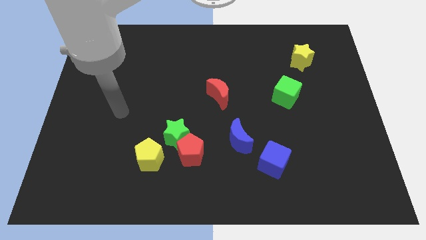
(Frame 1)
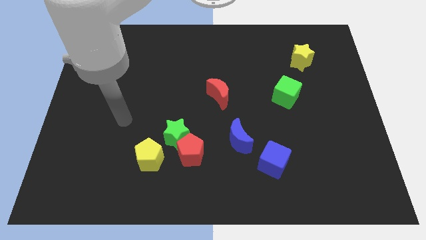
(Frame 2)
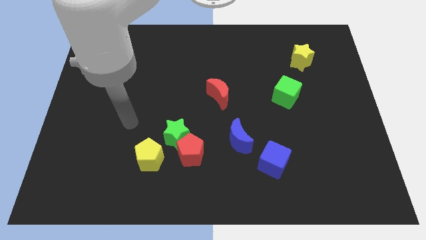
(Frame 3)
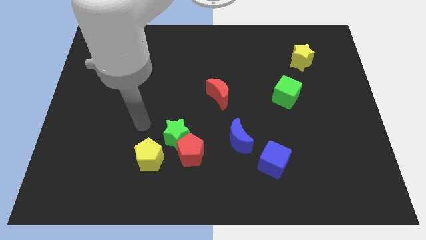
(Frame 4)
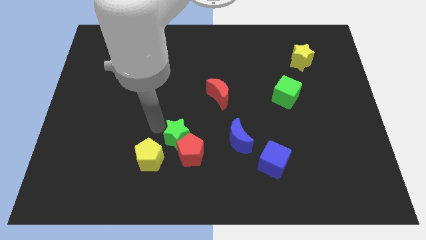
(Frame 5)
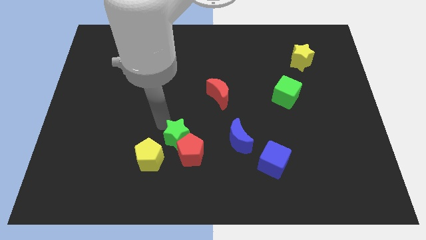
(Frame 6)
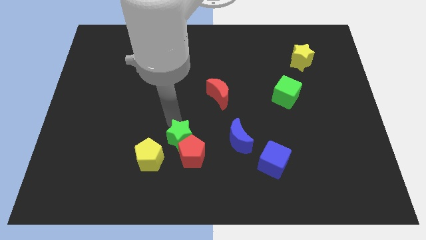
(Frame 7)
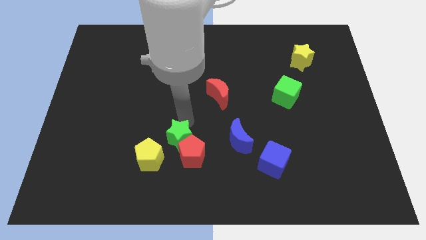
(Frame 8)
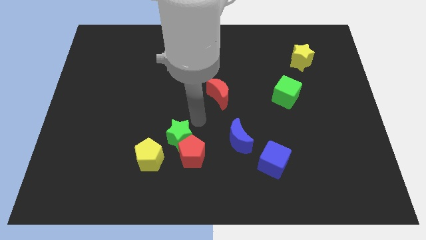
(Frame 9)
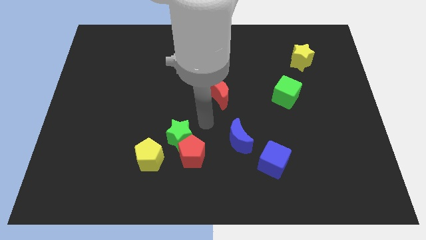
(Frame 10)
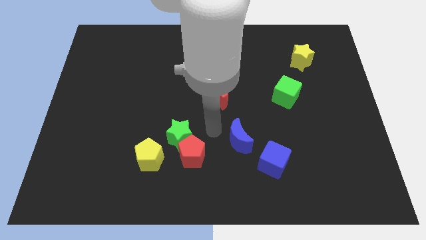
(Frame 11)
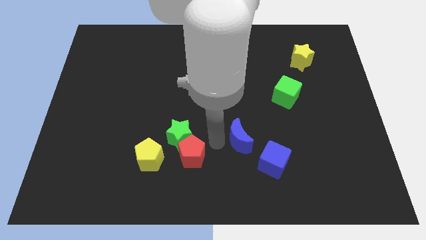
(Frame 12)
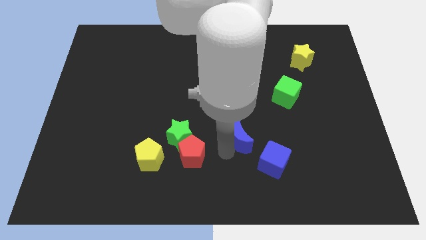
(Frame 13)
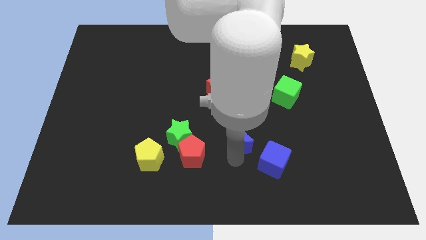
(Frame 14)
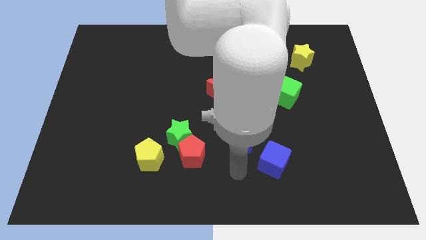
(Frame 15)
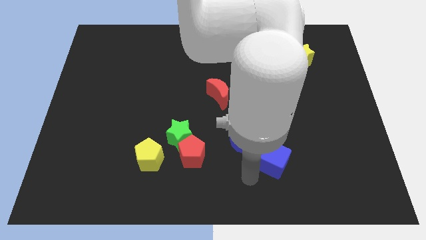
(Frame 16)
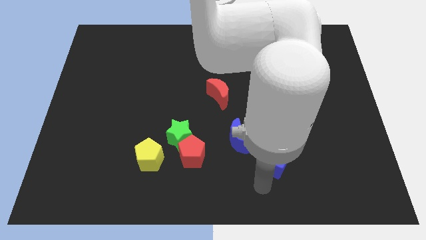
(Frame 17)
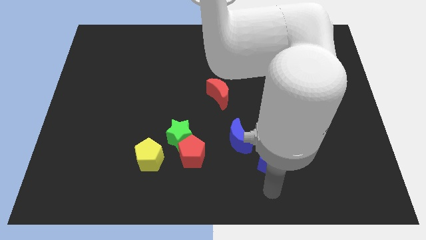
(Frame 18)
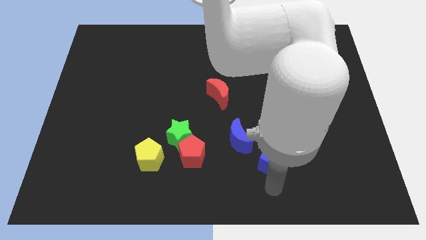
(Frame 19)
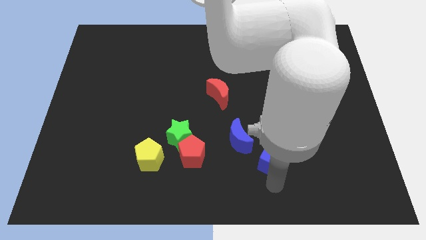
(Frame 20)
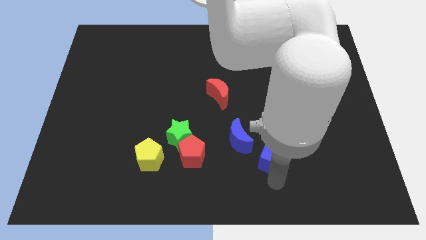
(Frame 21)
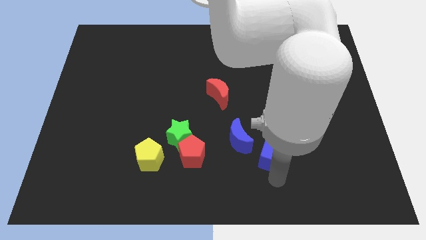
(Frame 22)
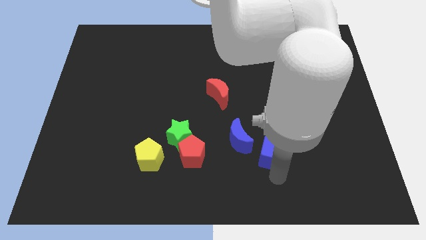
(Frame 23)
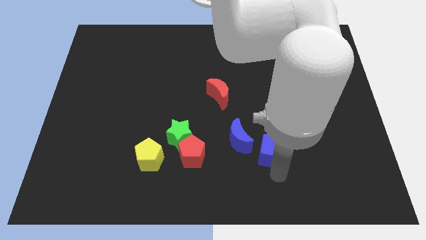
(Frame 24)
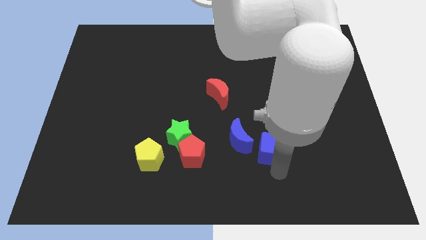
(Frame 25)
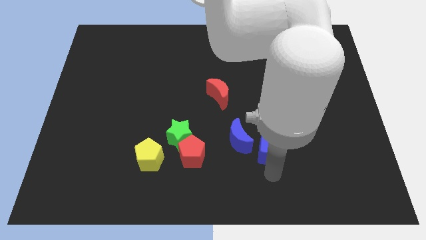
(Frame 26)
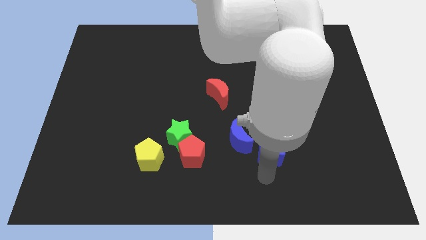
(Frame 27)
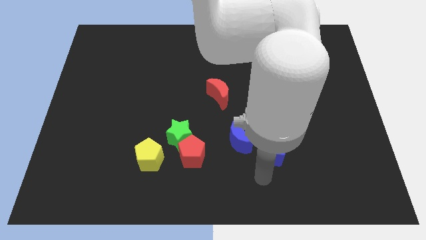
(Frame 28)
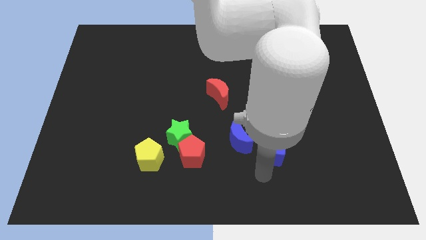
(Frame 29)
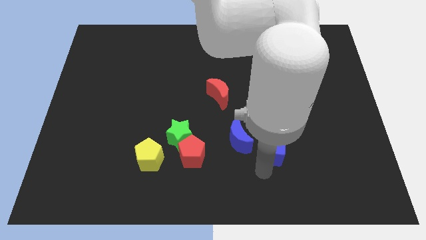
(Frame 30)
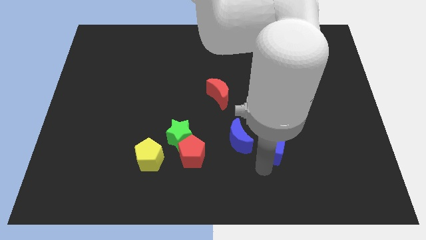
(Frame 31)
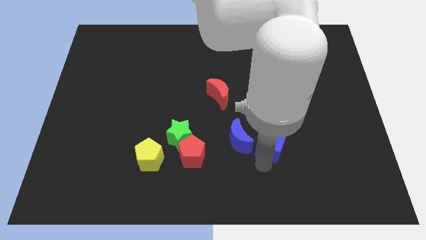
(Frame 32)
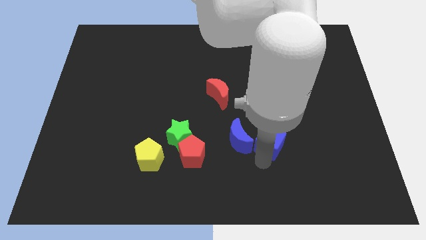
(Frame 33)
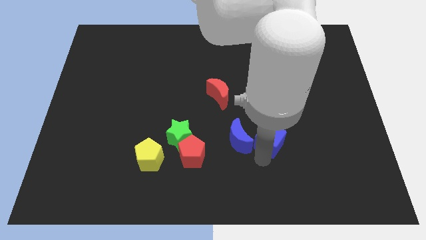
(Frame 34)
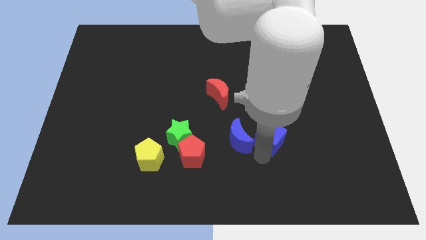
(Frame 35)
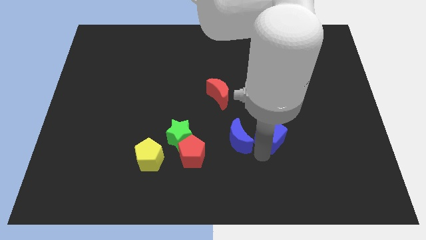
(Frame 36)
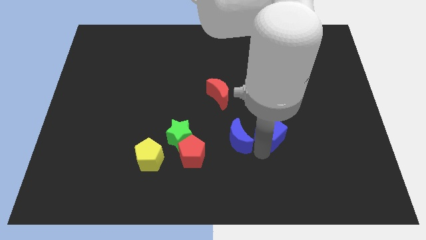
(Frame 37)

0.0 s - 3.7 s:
slightly slide the blue cube upwards

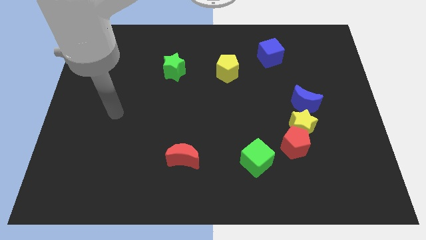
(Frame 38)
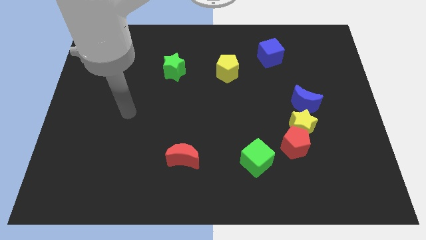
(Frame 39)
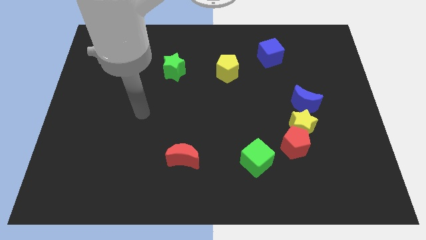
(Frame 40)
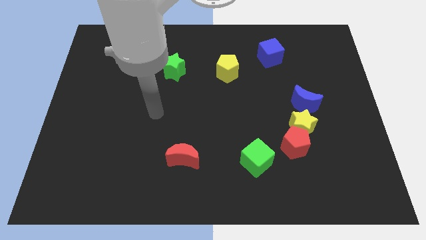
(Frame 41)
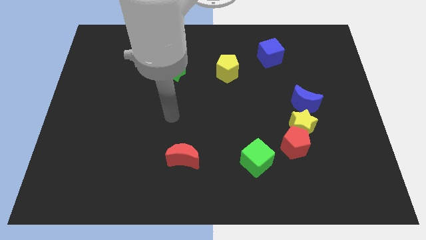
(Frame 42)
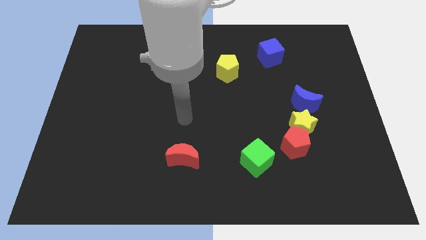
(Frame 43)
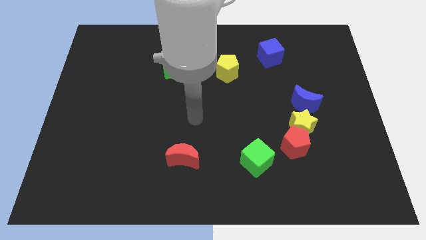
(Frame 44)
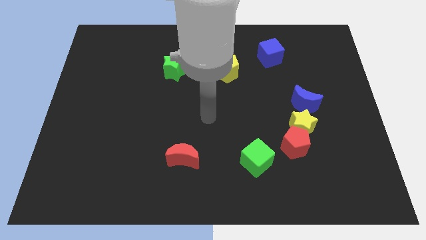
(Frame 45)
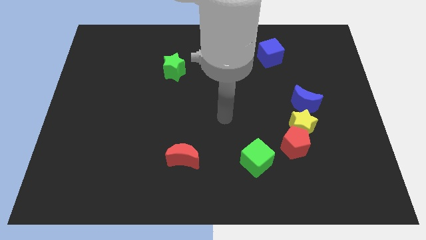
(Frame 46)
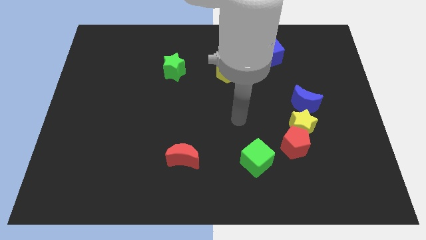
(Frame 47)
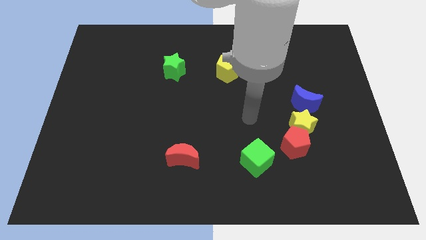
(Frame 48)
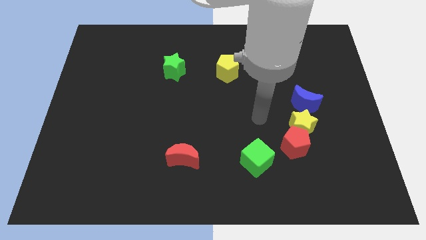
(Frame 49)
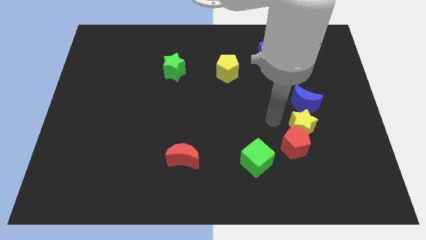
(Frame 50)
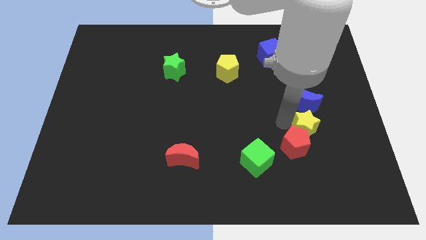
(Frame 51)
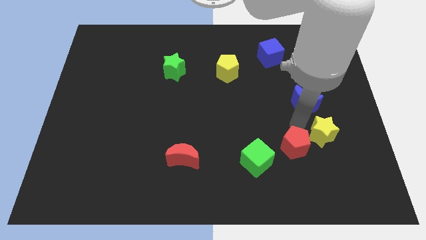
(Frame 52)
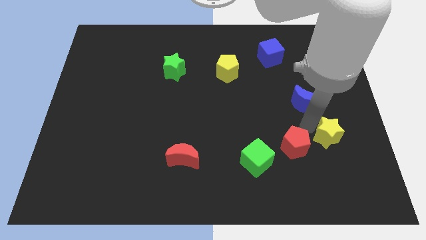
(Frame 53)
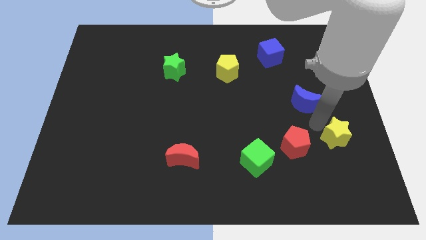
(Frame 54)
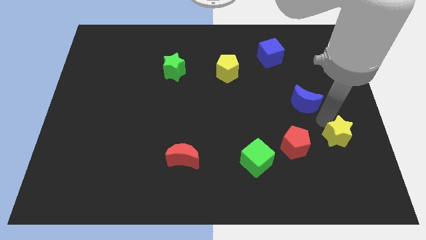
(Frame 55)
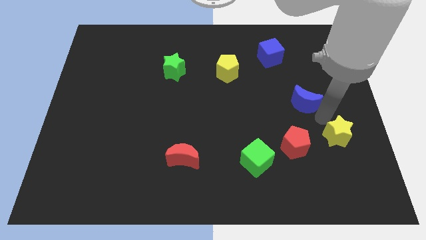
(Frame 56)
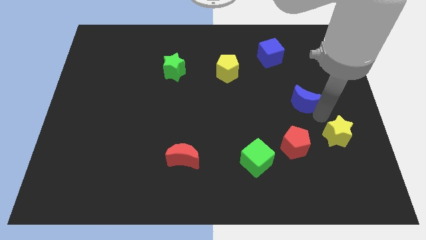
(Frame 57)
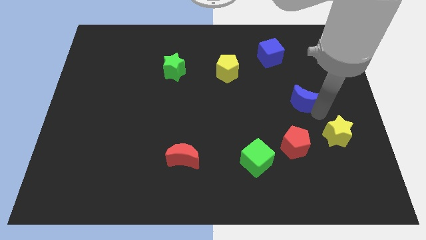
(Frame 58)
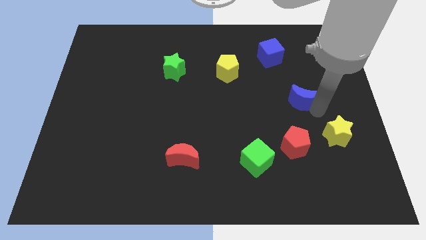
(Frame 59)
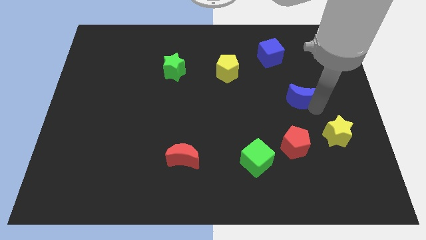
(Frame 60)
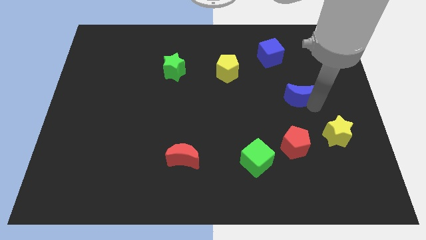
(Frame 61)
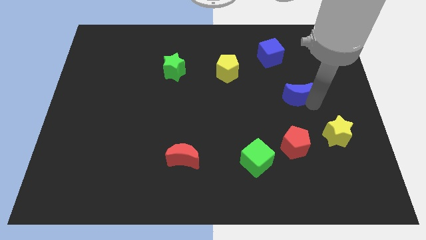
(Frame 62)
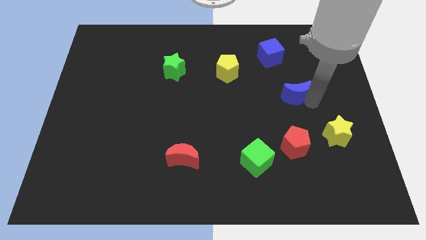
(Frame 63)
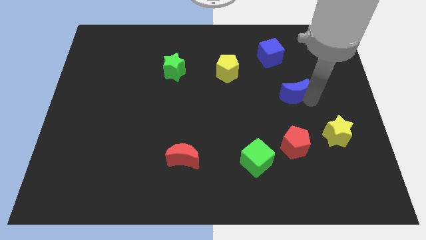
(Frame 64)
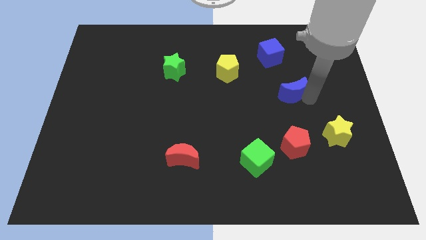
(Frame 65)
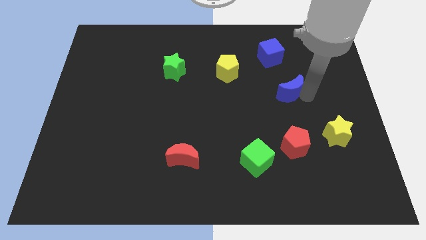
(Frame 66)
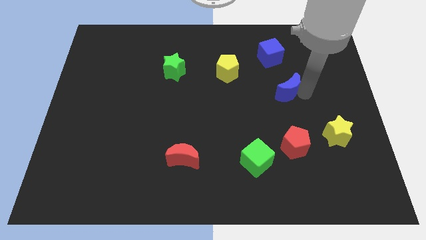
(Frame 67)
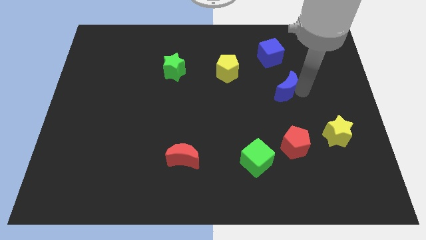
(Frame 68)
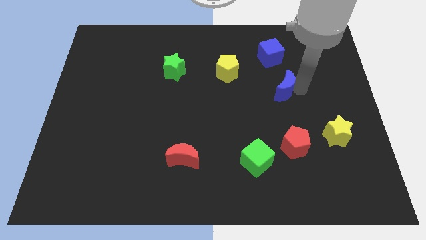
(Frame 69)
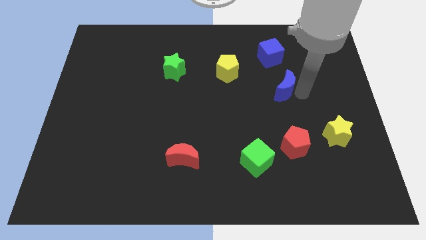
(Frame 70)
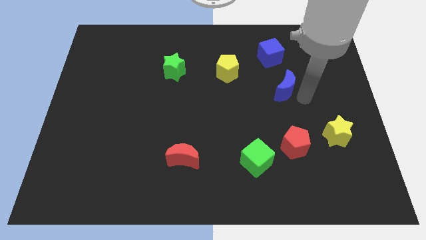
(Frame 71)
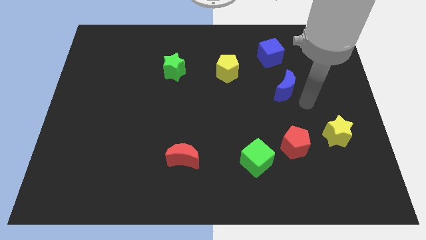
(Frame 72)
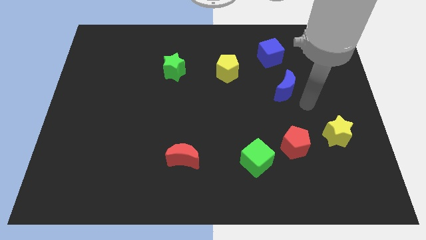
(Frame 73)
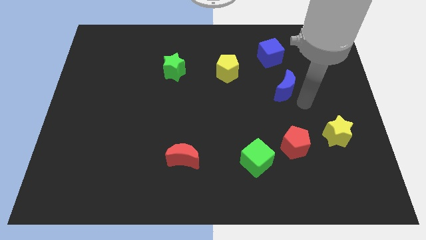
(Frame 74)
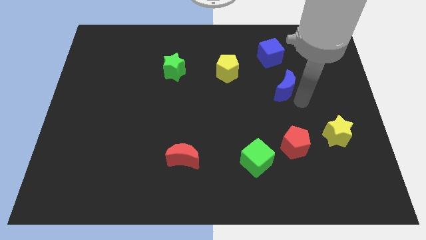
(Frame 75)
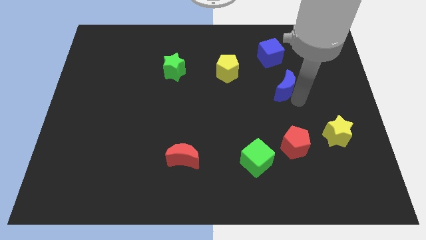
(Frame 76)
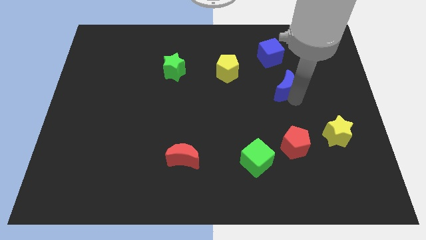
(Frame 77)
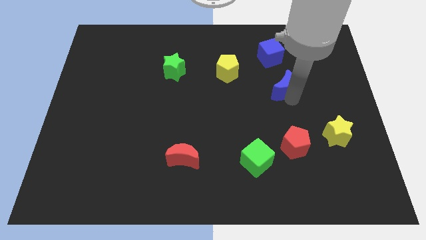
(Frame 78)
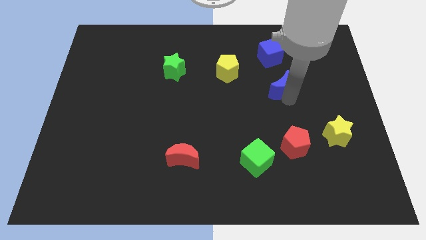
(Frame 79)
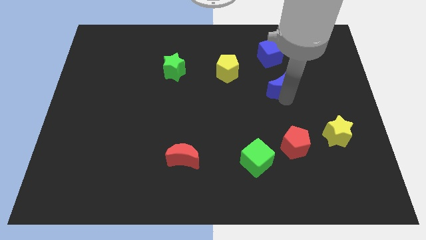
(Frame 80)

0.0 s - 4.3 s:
push the blue moon upwards and left diagonally a bit
